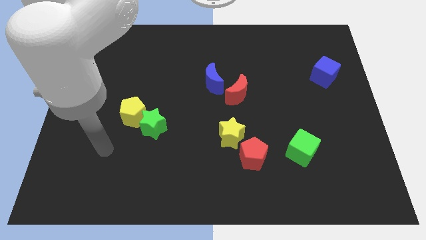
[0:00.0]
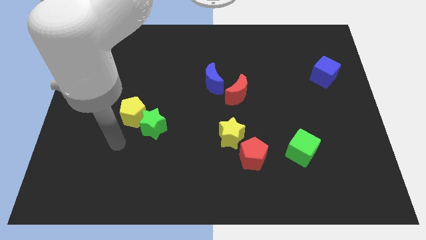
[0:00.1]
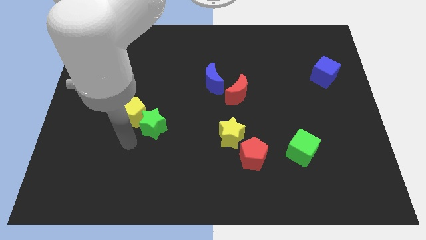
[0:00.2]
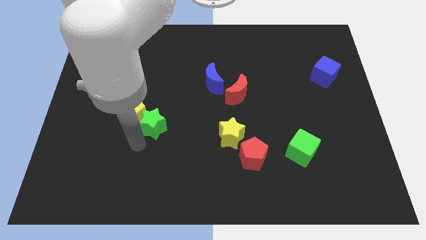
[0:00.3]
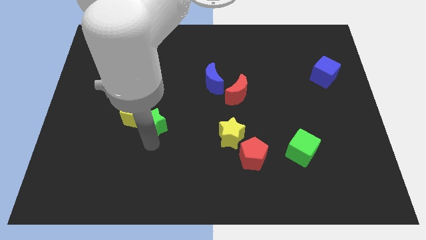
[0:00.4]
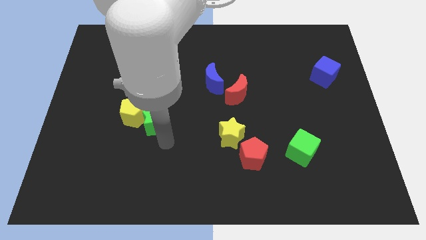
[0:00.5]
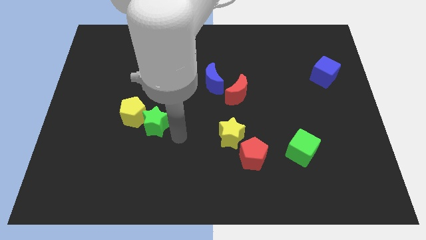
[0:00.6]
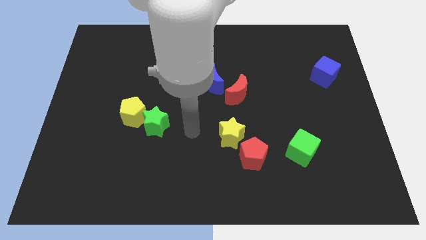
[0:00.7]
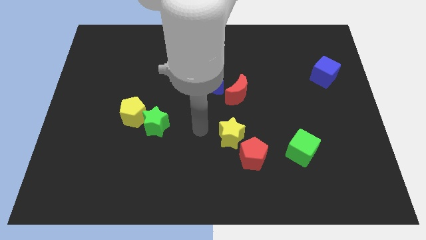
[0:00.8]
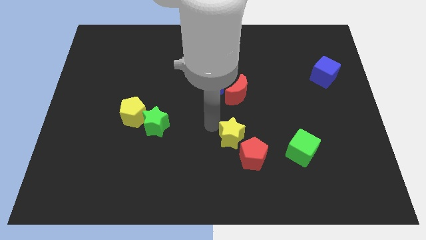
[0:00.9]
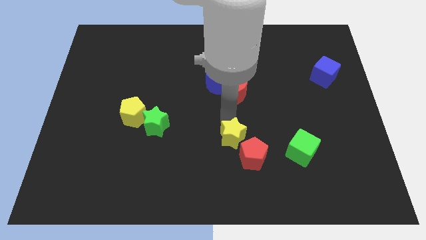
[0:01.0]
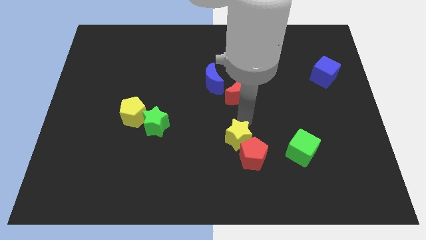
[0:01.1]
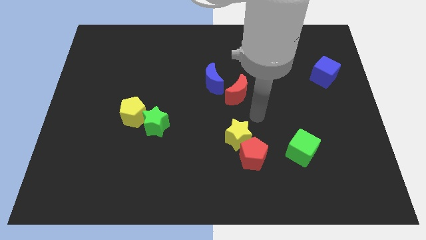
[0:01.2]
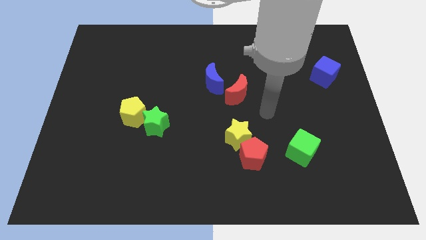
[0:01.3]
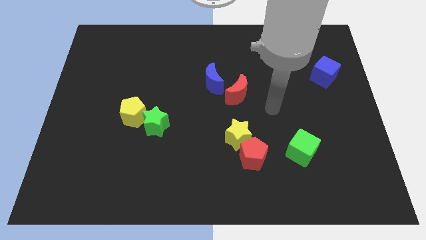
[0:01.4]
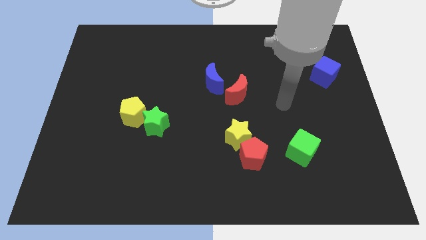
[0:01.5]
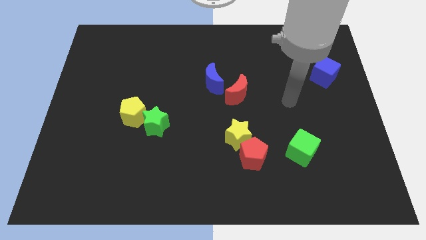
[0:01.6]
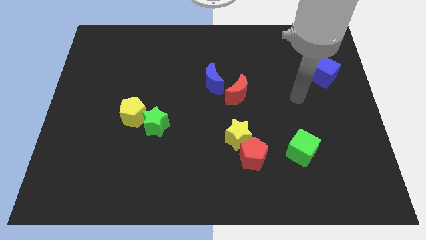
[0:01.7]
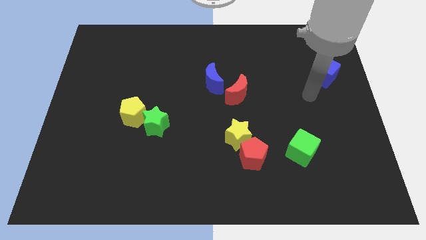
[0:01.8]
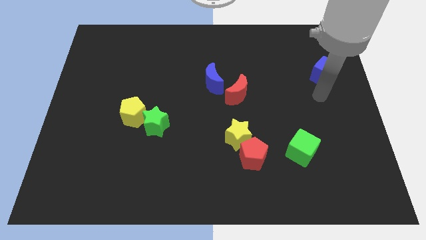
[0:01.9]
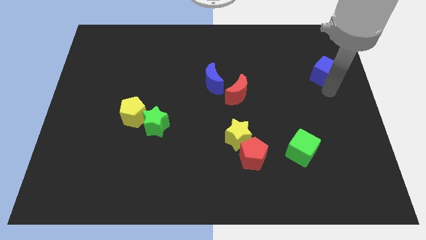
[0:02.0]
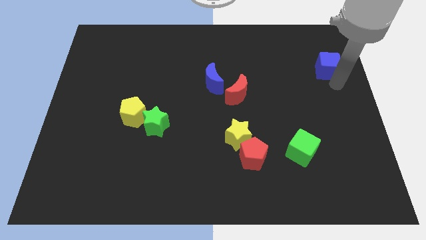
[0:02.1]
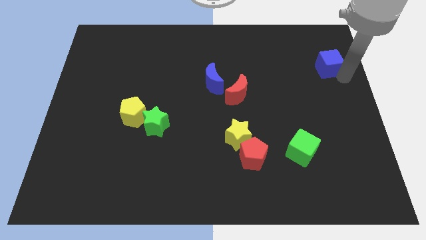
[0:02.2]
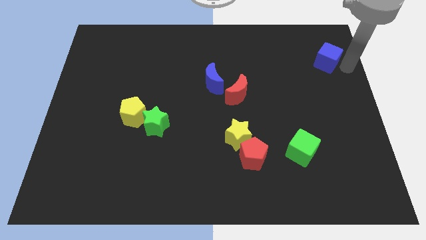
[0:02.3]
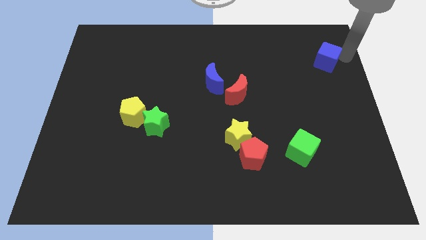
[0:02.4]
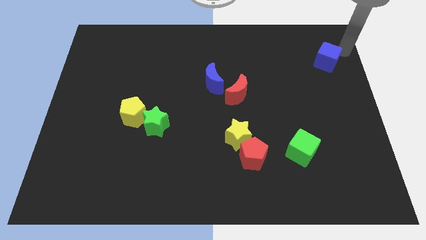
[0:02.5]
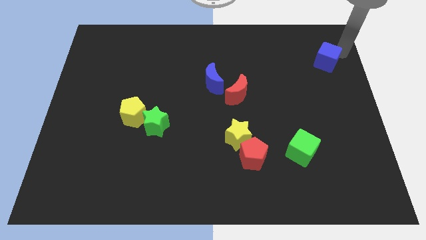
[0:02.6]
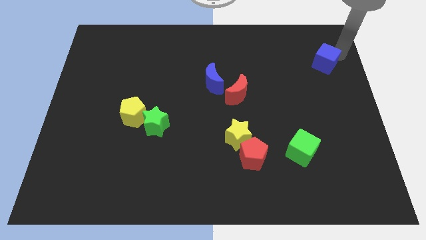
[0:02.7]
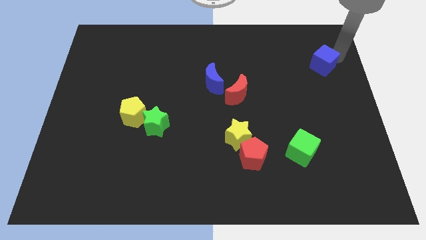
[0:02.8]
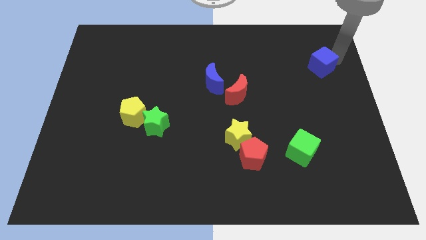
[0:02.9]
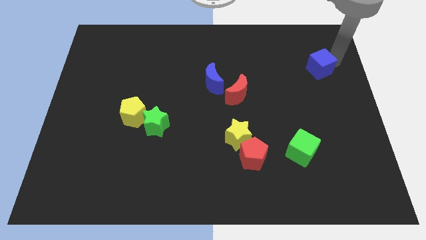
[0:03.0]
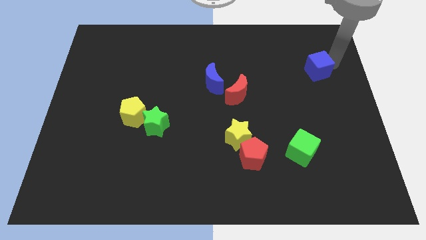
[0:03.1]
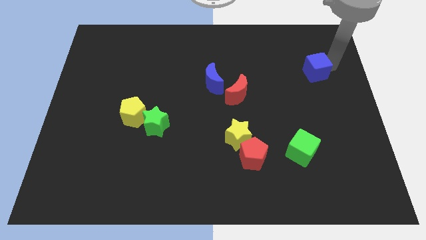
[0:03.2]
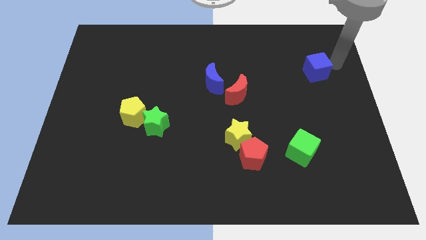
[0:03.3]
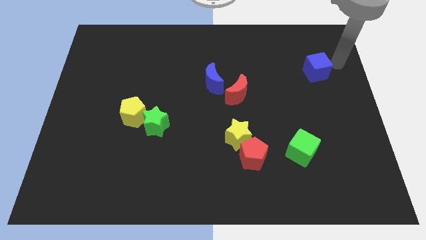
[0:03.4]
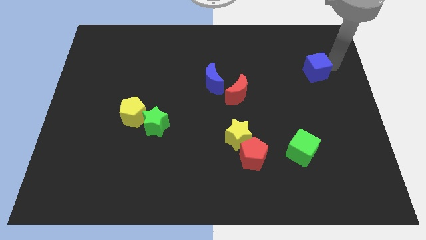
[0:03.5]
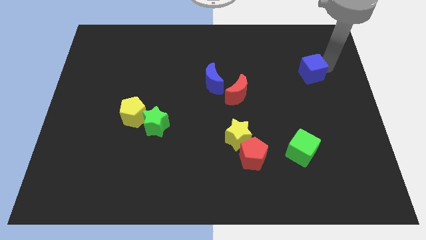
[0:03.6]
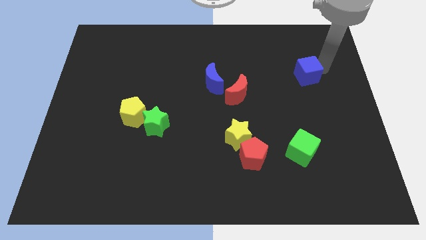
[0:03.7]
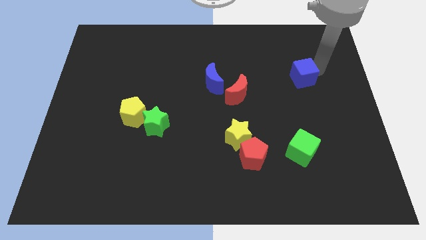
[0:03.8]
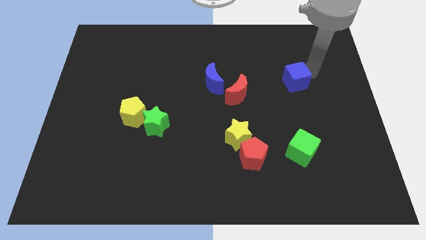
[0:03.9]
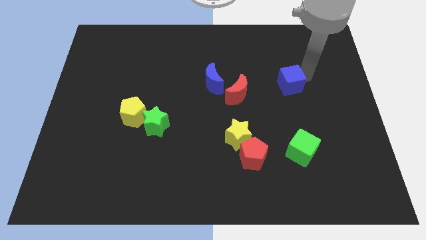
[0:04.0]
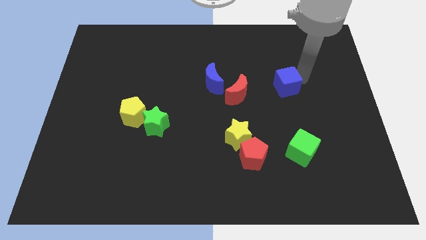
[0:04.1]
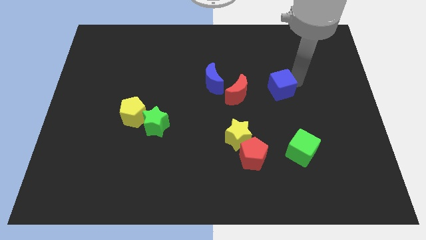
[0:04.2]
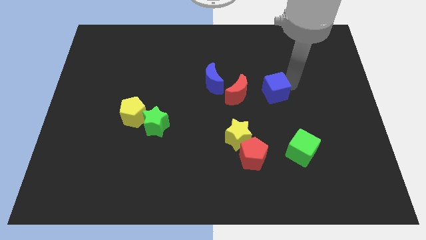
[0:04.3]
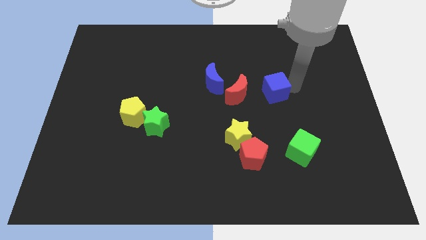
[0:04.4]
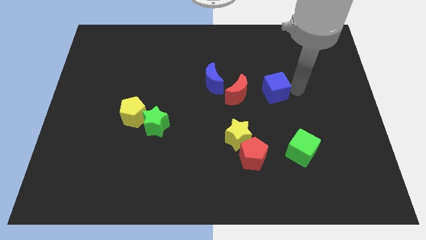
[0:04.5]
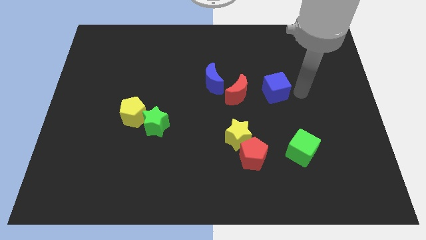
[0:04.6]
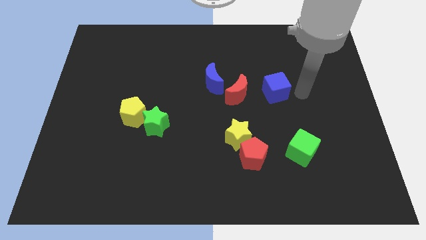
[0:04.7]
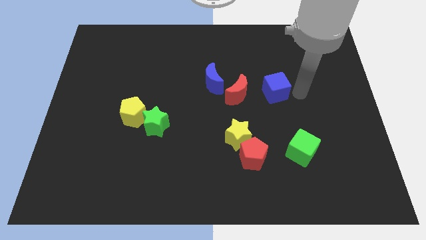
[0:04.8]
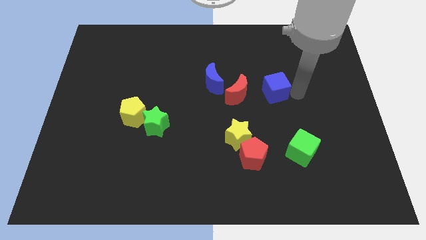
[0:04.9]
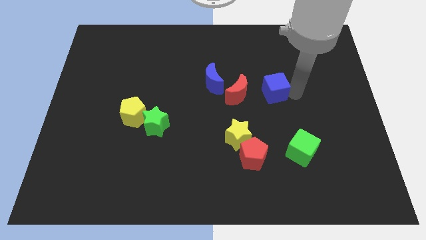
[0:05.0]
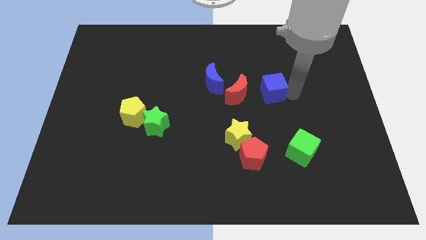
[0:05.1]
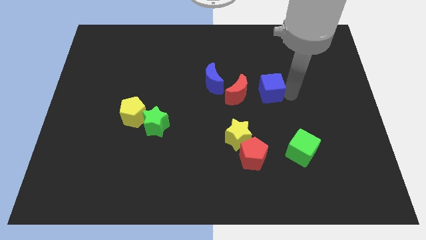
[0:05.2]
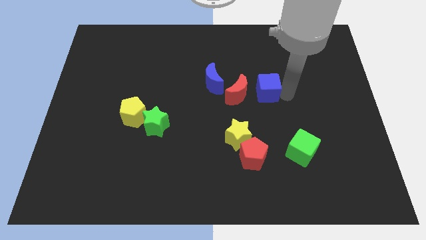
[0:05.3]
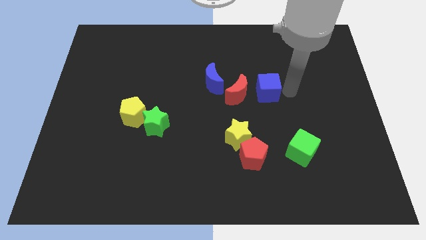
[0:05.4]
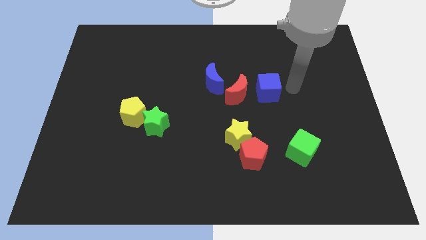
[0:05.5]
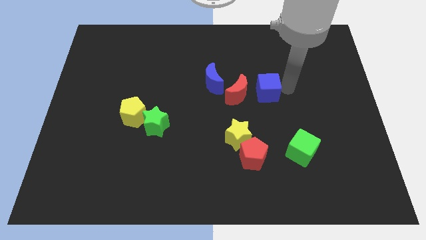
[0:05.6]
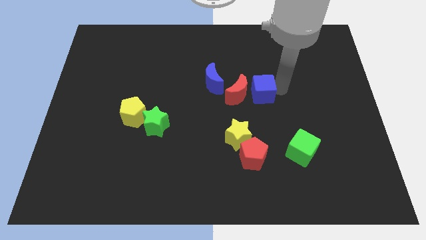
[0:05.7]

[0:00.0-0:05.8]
move the blue cube to the red moon

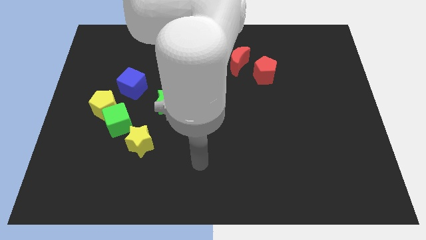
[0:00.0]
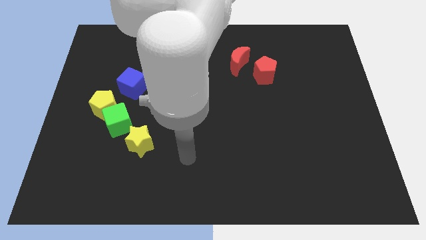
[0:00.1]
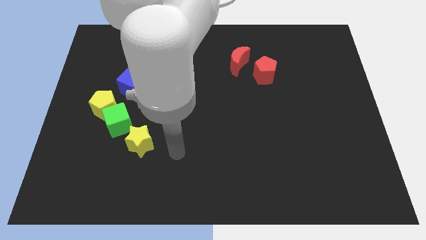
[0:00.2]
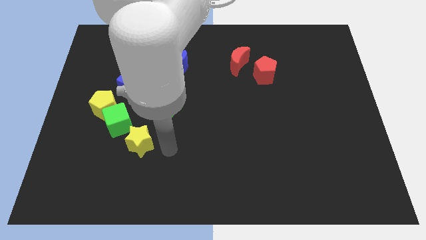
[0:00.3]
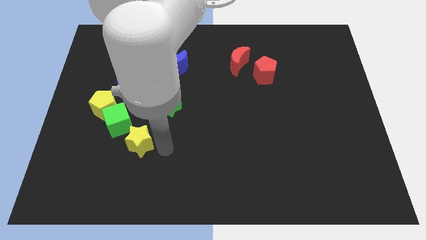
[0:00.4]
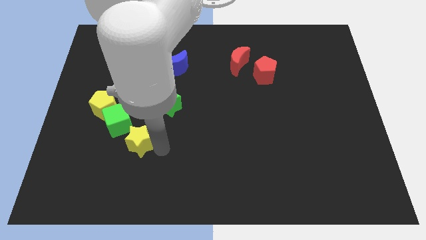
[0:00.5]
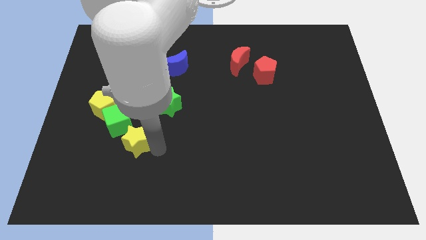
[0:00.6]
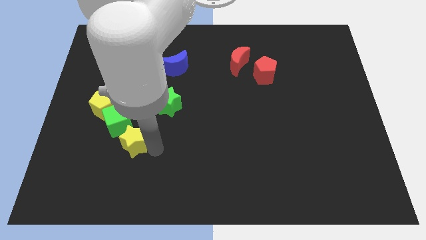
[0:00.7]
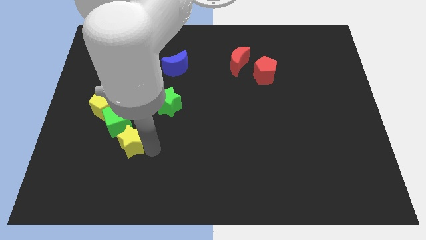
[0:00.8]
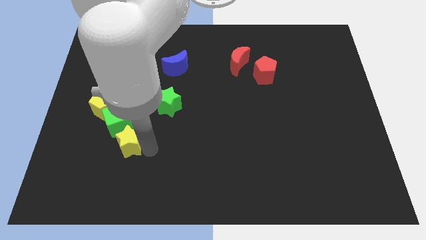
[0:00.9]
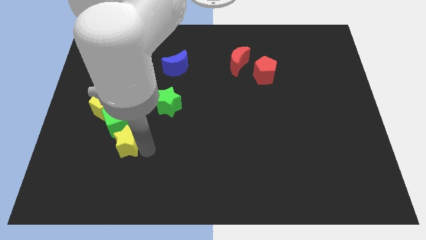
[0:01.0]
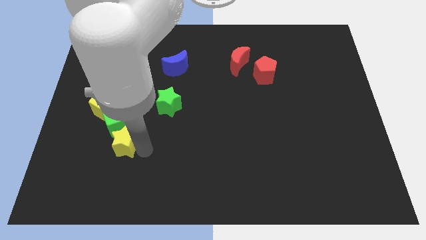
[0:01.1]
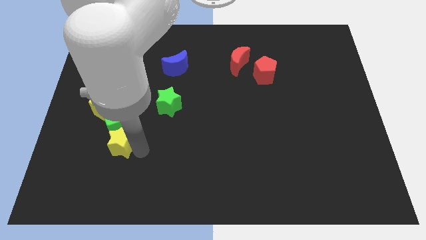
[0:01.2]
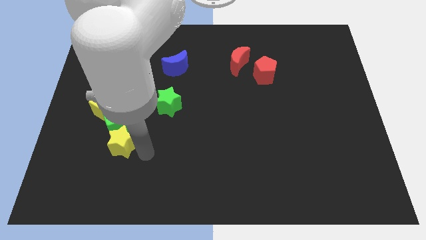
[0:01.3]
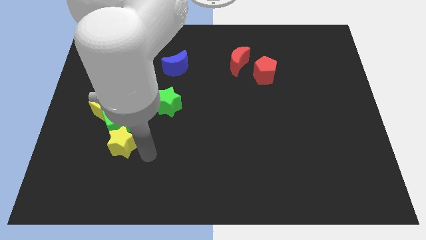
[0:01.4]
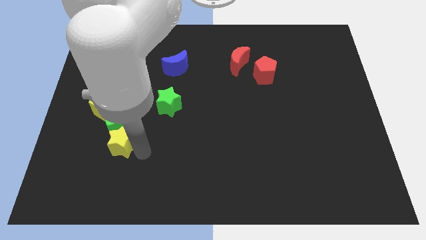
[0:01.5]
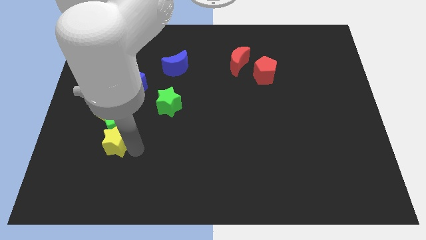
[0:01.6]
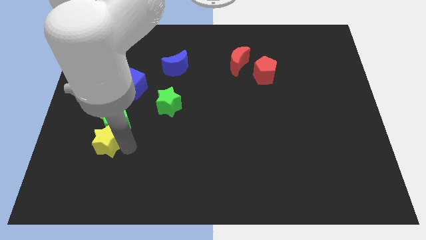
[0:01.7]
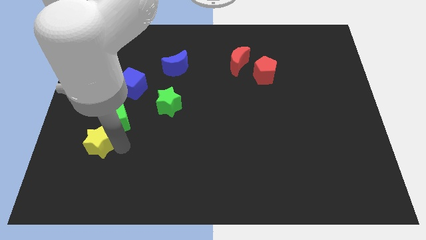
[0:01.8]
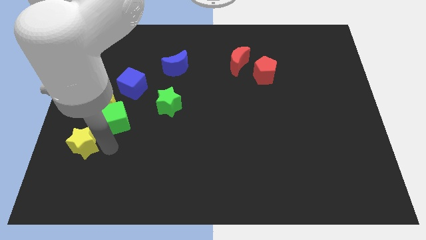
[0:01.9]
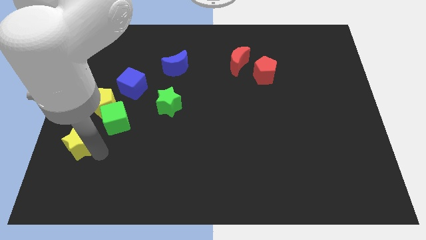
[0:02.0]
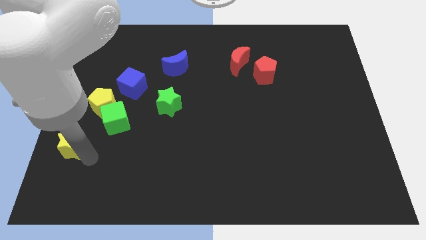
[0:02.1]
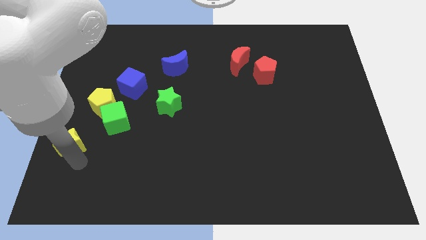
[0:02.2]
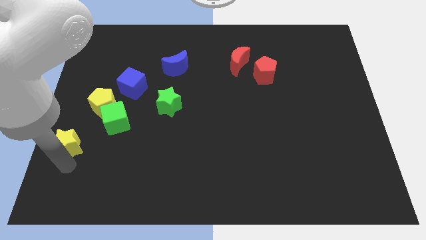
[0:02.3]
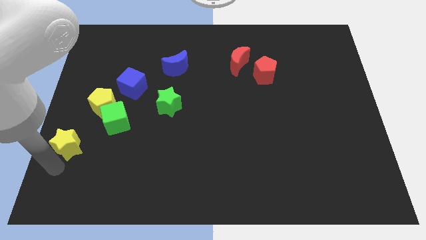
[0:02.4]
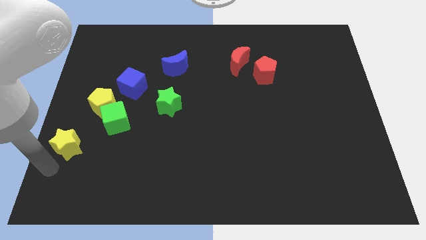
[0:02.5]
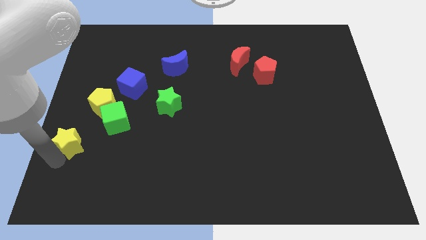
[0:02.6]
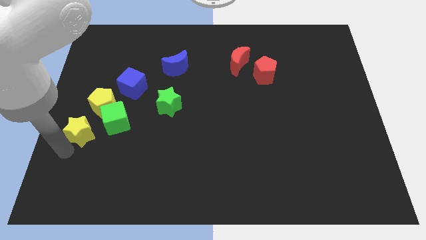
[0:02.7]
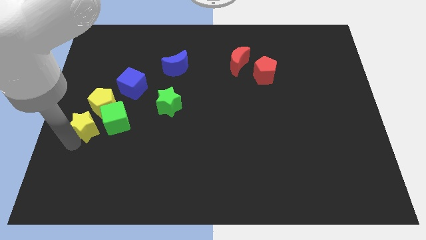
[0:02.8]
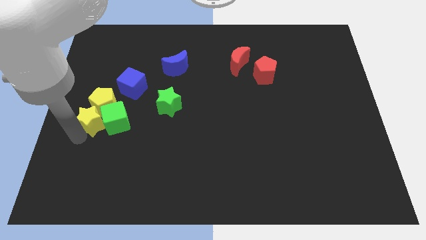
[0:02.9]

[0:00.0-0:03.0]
put the yellow star towards the yellow pentagon
